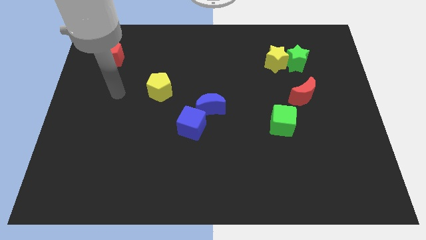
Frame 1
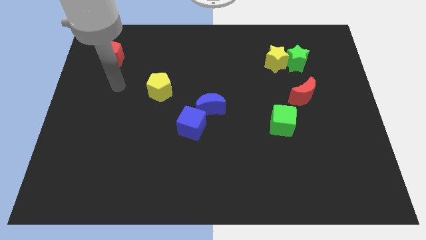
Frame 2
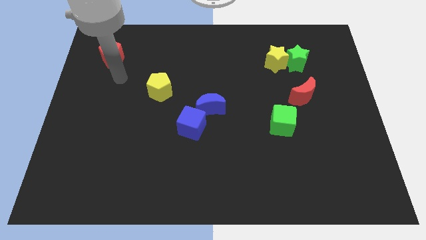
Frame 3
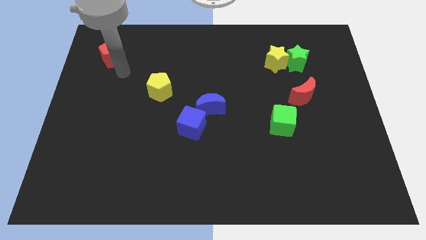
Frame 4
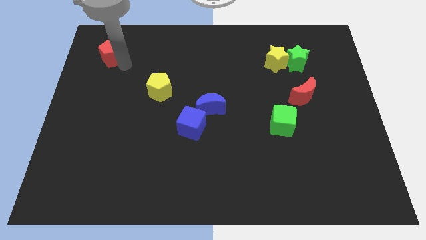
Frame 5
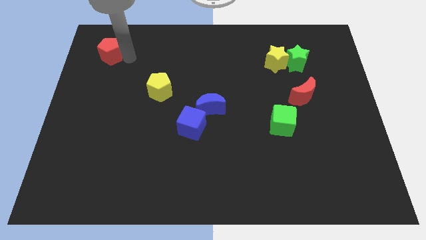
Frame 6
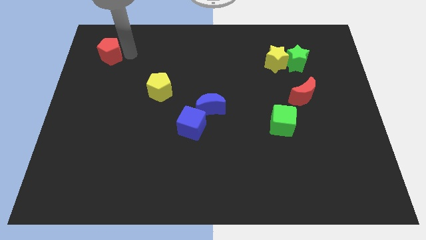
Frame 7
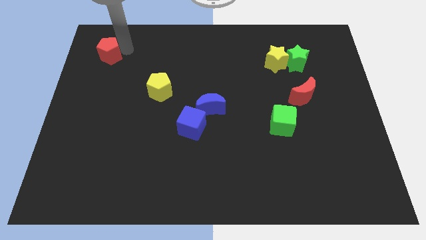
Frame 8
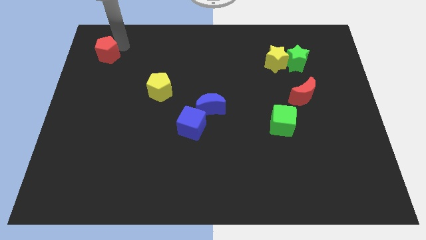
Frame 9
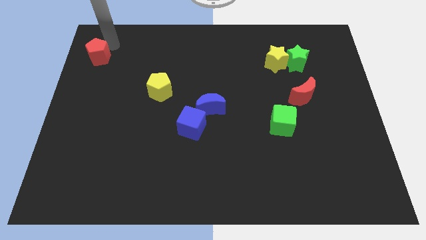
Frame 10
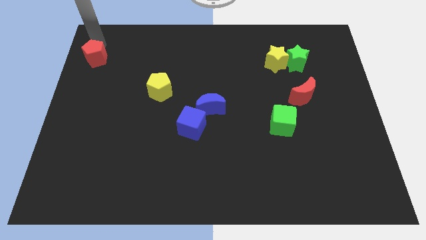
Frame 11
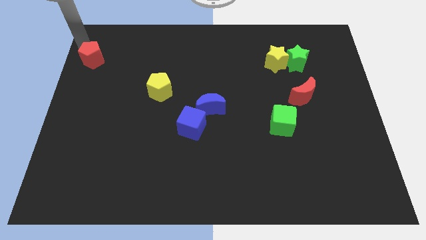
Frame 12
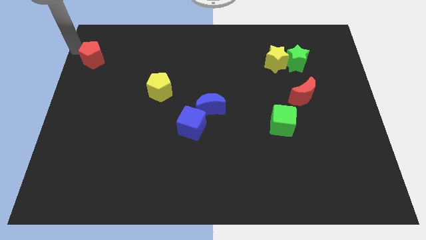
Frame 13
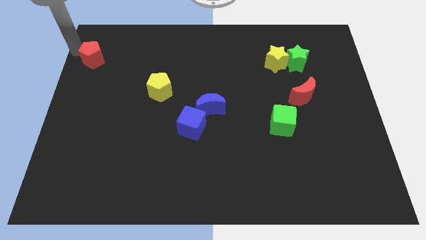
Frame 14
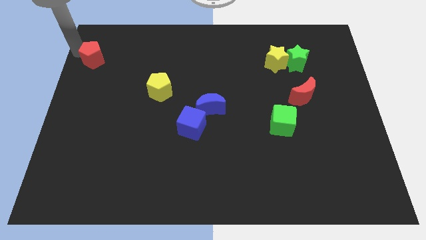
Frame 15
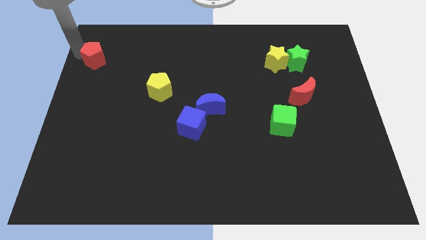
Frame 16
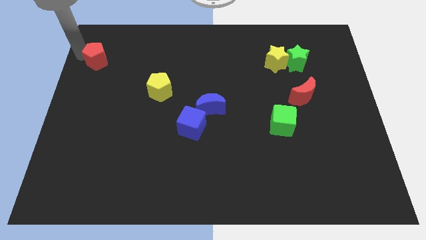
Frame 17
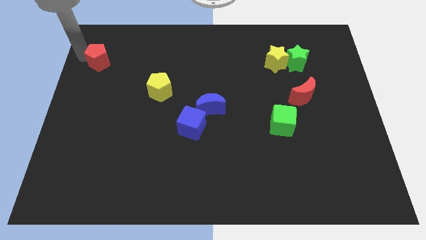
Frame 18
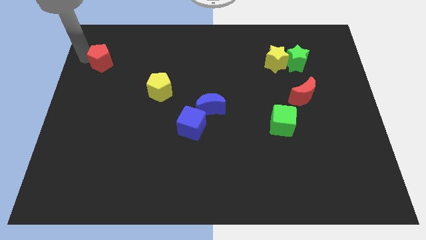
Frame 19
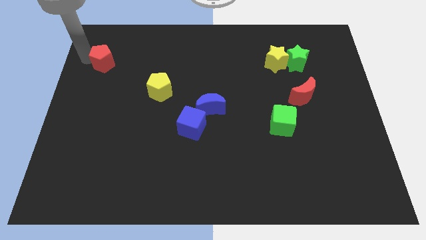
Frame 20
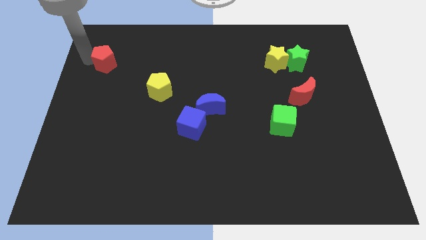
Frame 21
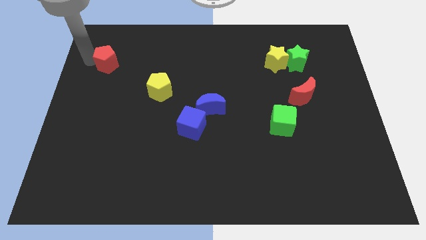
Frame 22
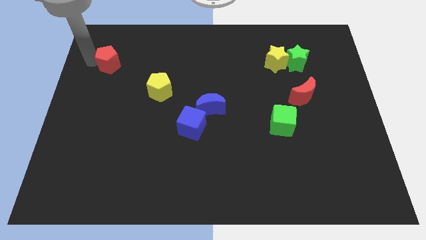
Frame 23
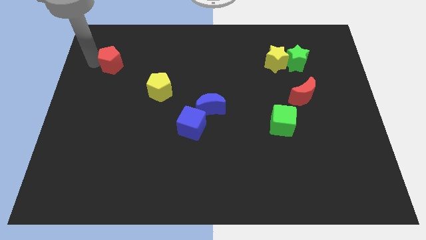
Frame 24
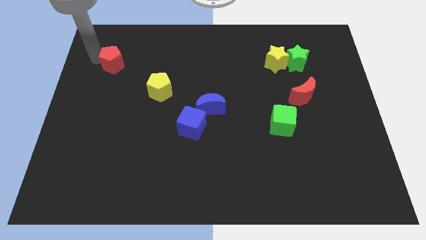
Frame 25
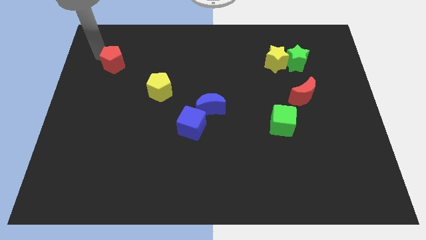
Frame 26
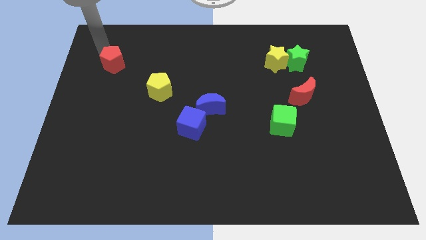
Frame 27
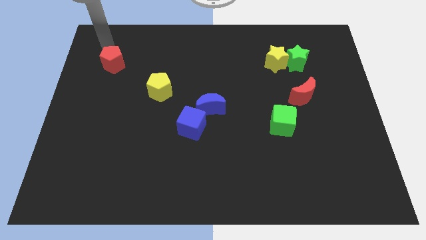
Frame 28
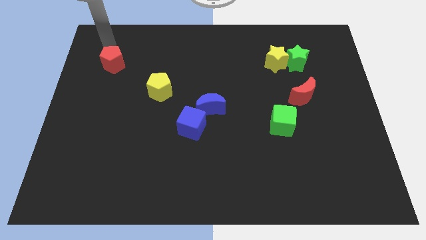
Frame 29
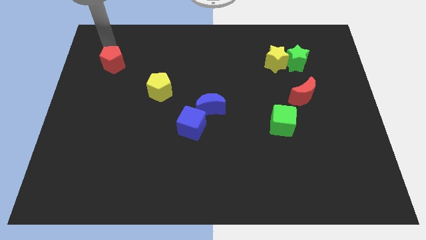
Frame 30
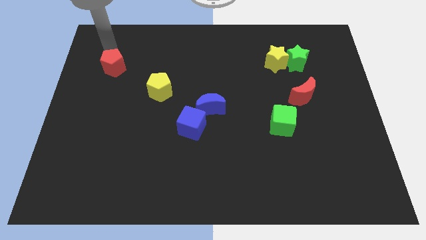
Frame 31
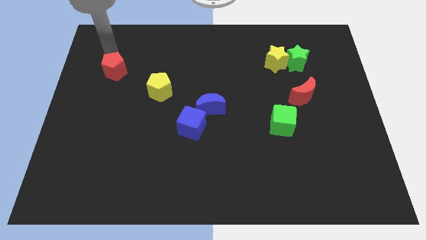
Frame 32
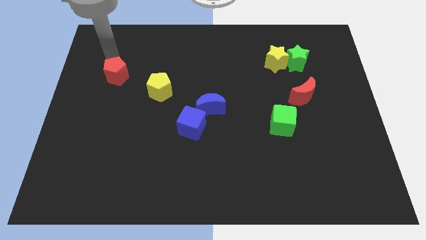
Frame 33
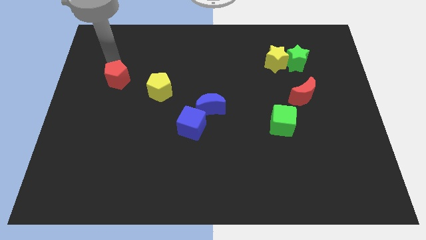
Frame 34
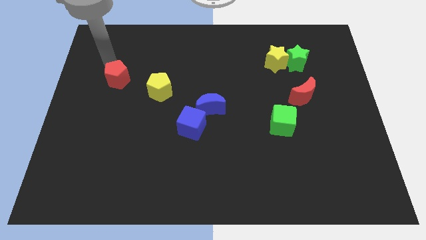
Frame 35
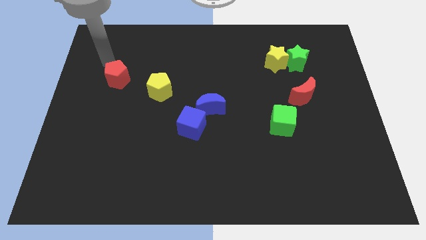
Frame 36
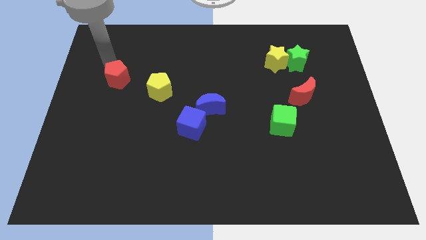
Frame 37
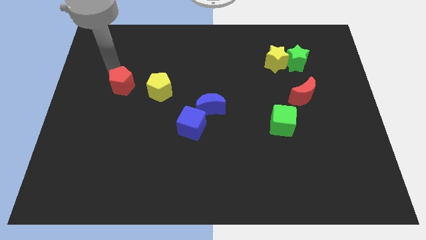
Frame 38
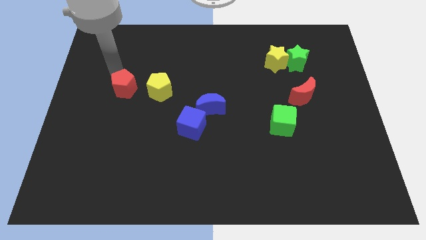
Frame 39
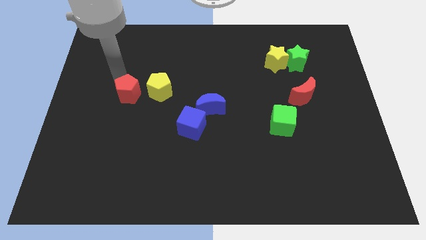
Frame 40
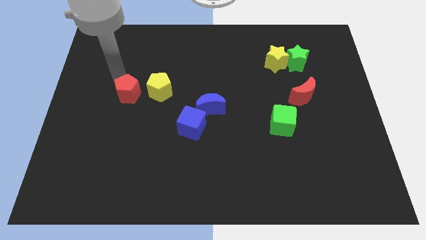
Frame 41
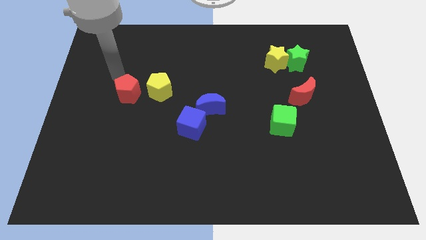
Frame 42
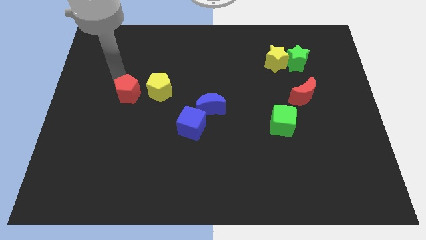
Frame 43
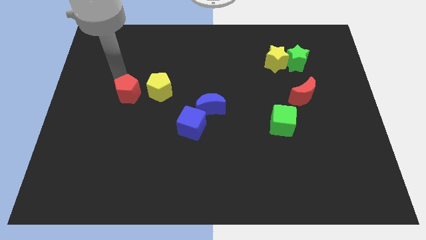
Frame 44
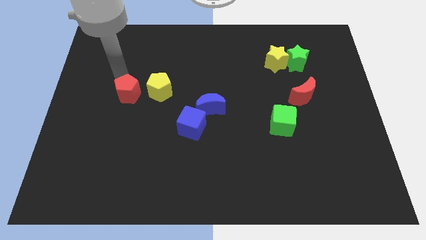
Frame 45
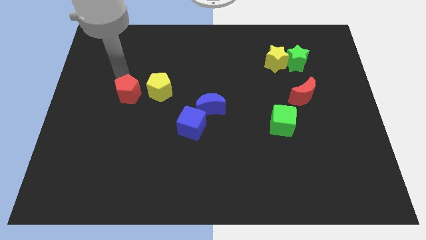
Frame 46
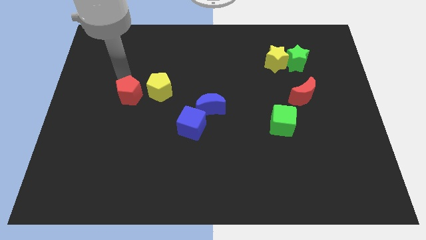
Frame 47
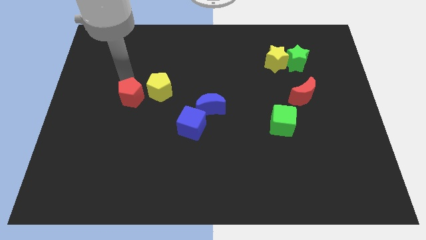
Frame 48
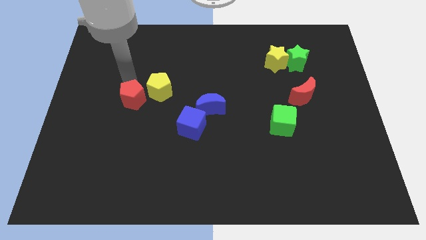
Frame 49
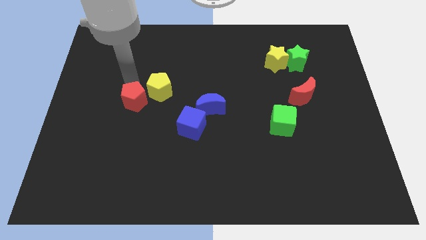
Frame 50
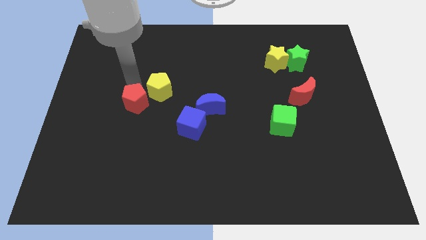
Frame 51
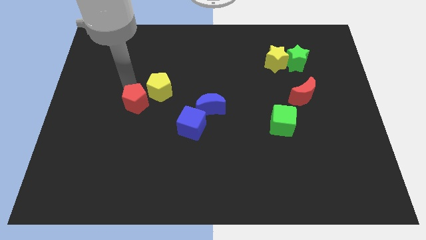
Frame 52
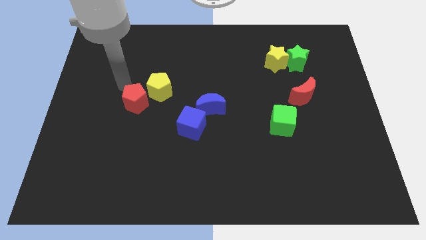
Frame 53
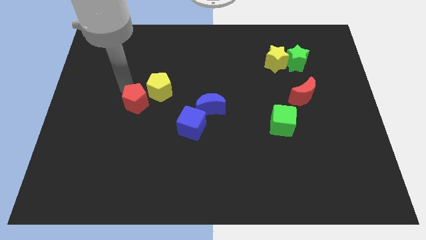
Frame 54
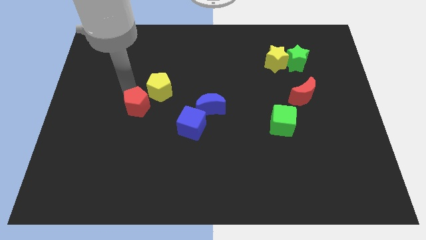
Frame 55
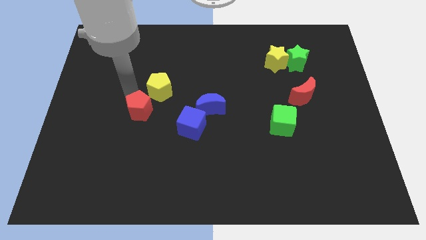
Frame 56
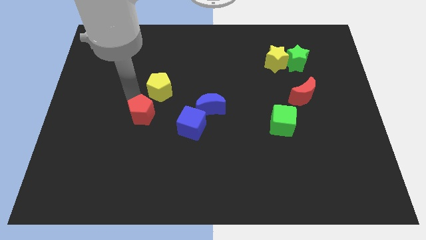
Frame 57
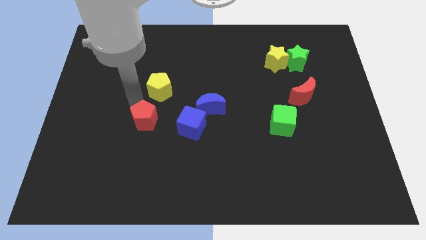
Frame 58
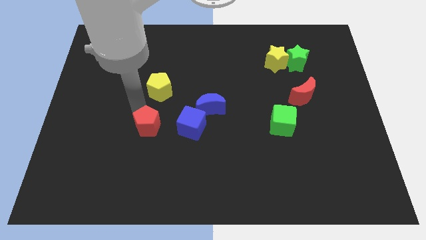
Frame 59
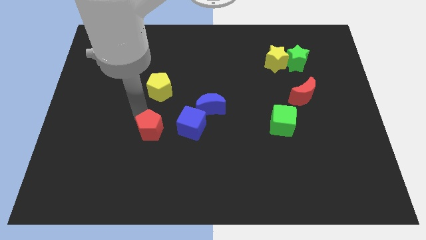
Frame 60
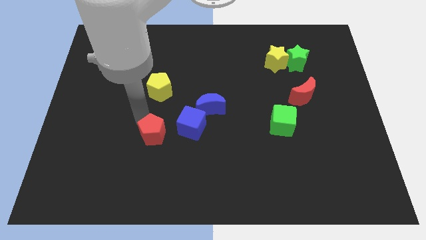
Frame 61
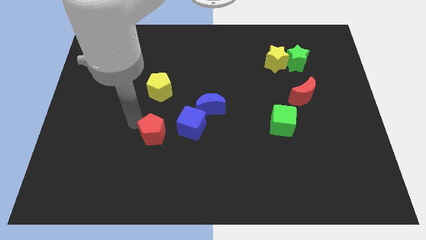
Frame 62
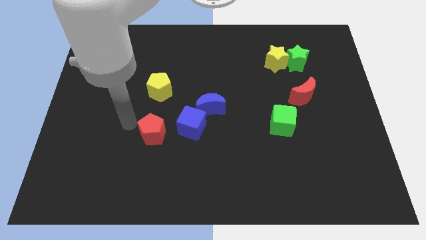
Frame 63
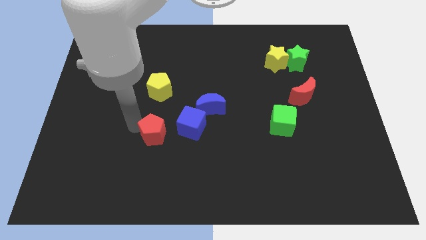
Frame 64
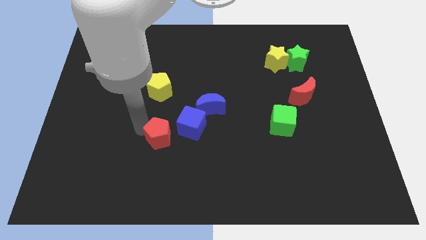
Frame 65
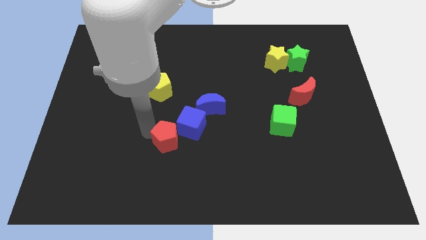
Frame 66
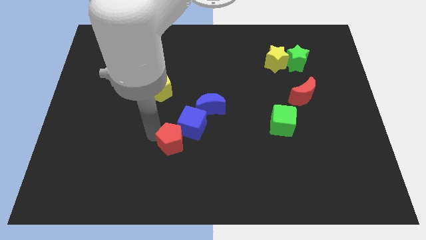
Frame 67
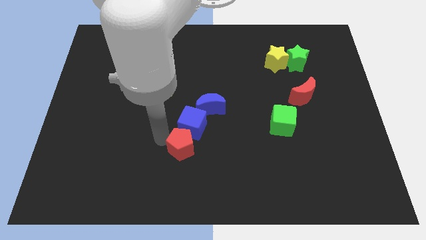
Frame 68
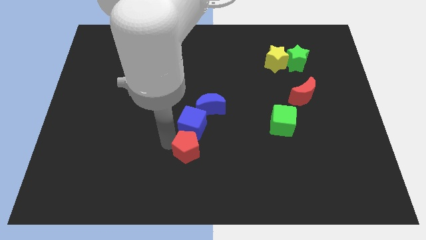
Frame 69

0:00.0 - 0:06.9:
move the red pentagon to the bottom of the blue moon
